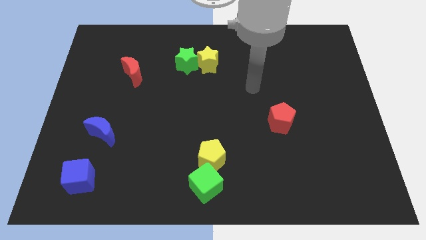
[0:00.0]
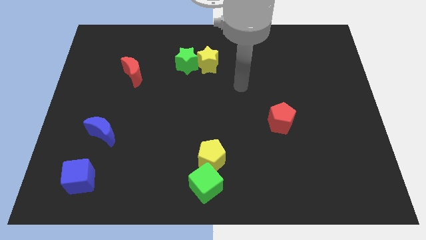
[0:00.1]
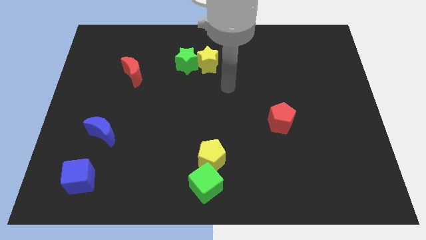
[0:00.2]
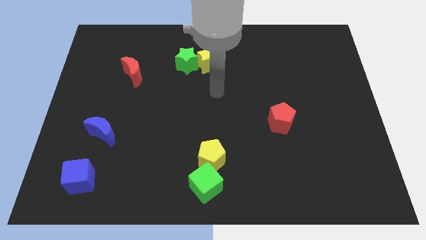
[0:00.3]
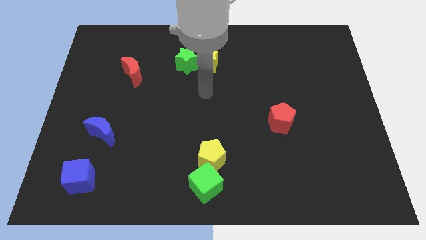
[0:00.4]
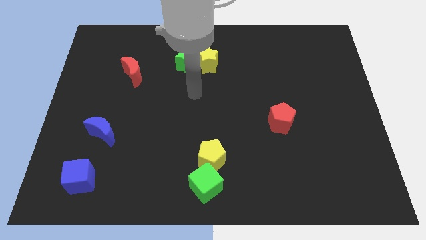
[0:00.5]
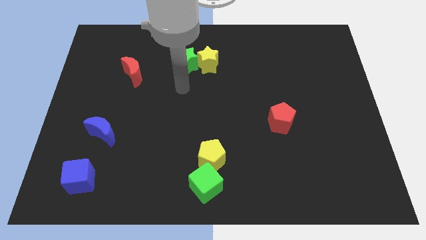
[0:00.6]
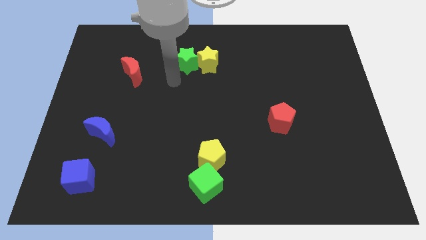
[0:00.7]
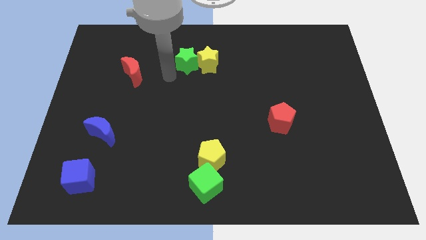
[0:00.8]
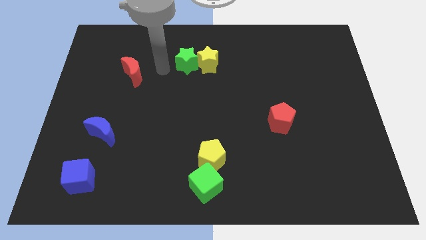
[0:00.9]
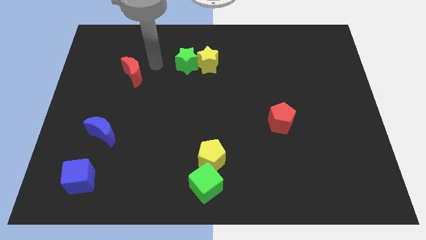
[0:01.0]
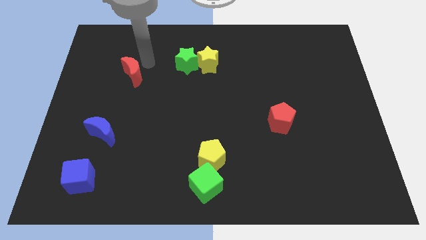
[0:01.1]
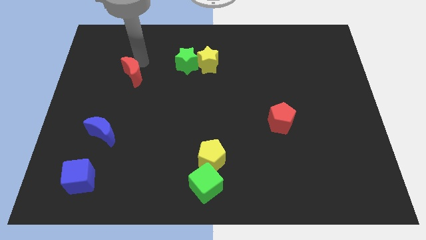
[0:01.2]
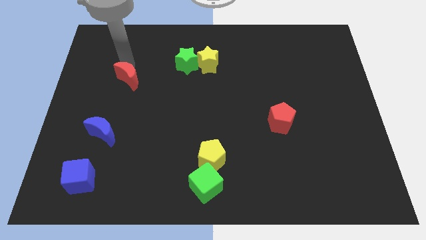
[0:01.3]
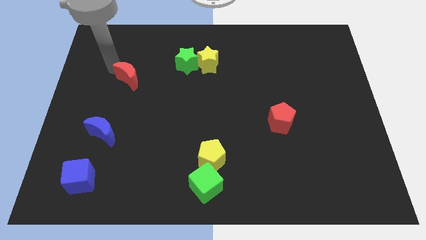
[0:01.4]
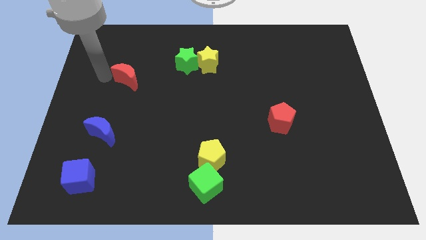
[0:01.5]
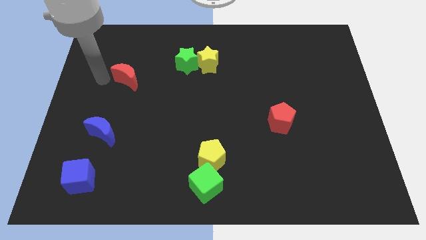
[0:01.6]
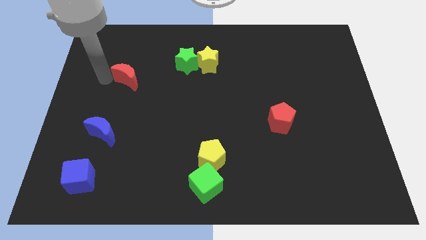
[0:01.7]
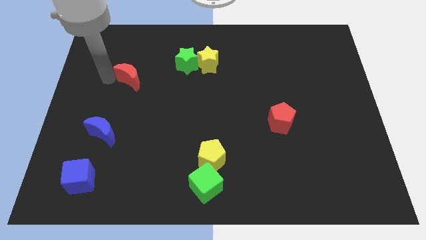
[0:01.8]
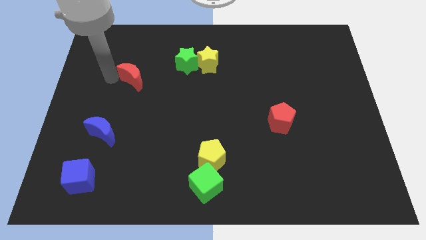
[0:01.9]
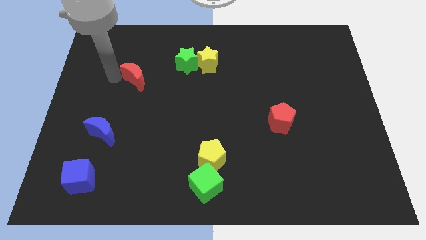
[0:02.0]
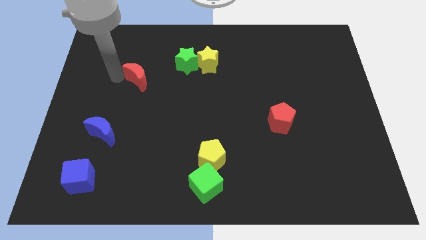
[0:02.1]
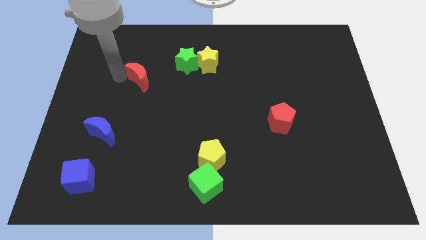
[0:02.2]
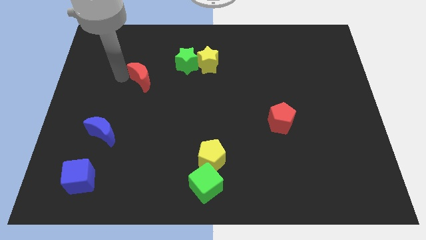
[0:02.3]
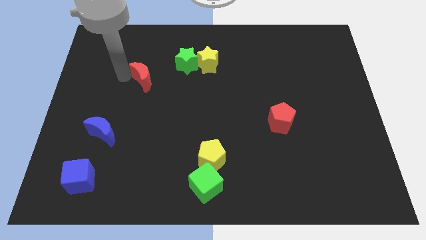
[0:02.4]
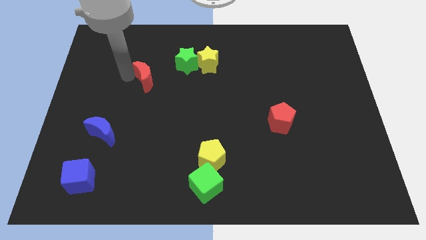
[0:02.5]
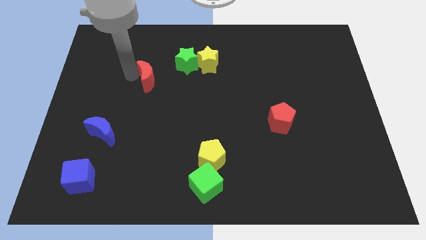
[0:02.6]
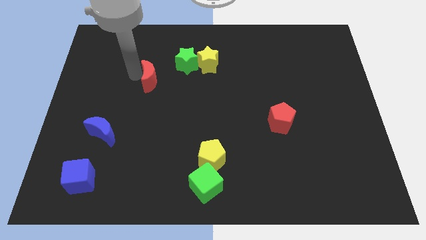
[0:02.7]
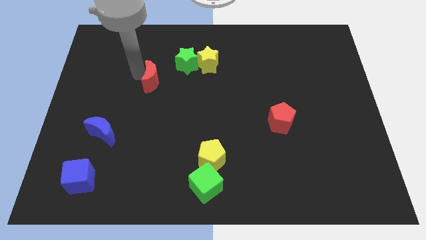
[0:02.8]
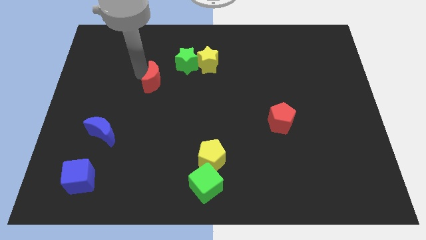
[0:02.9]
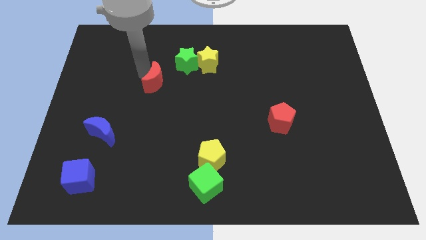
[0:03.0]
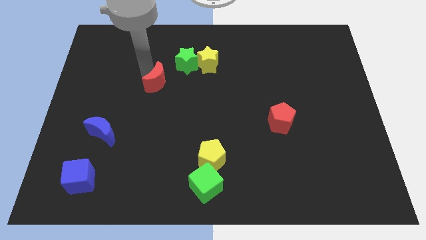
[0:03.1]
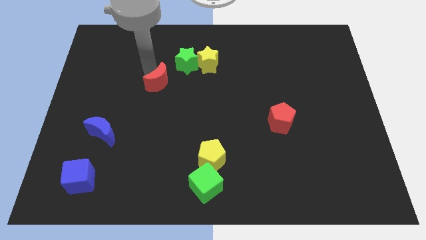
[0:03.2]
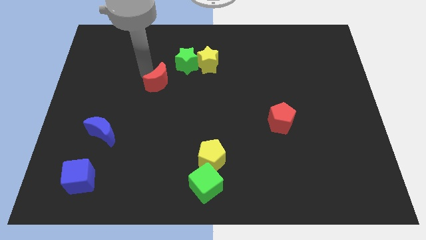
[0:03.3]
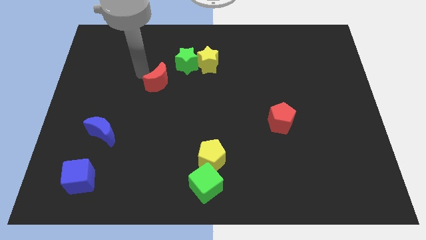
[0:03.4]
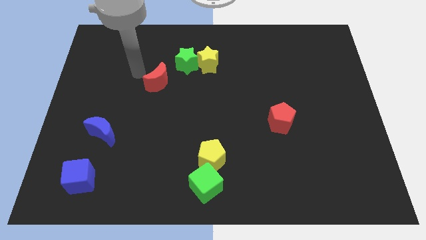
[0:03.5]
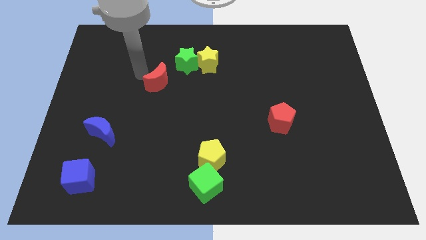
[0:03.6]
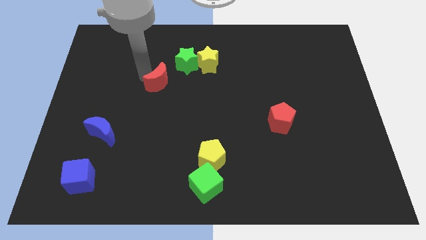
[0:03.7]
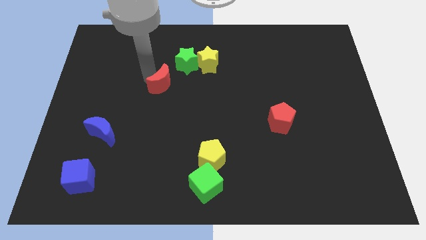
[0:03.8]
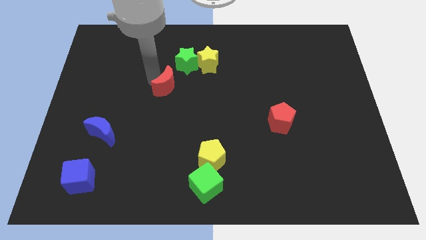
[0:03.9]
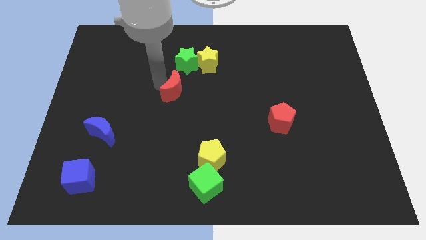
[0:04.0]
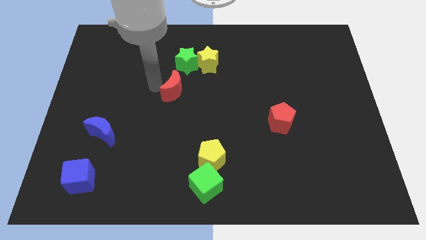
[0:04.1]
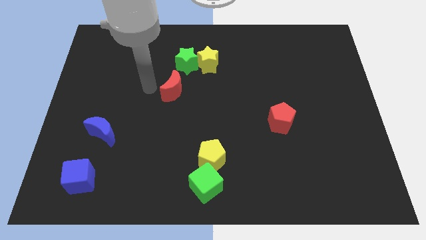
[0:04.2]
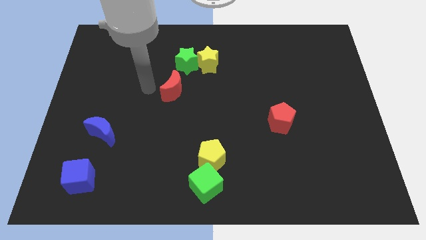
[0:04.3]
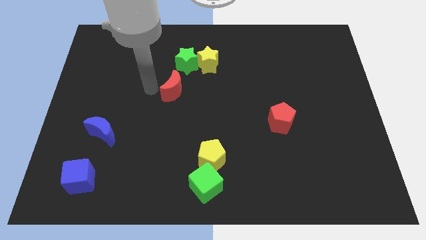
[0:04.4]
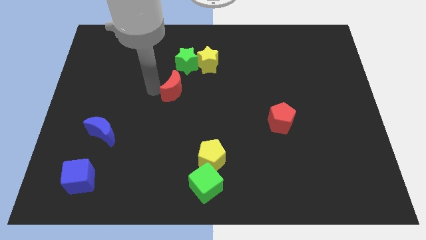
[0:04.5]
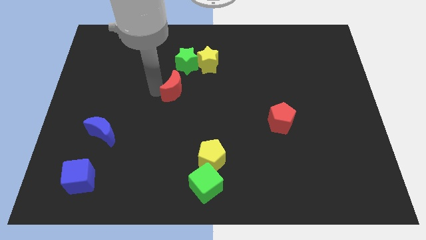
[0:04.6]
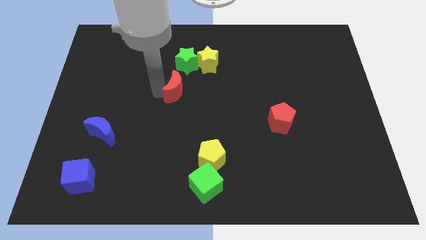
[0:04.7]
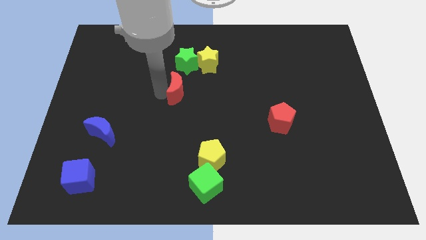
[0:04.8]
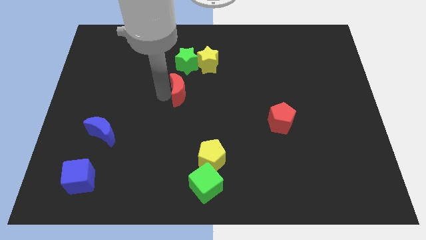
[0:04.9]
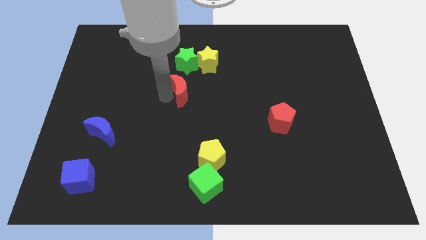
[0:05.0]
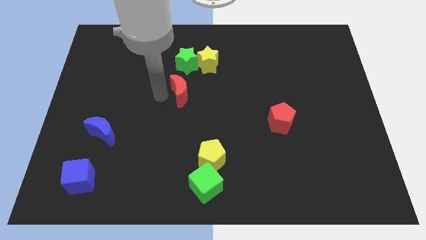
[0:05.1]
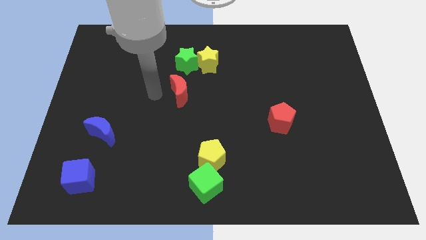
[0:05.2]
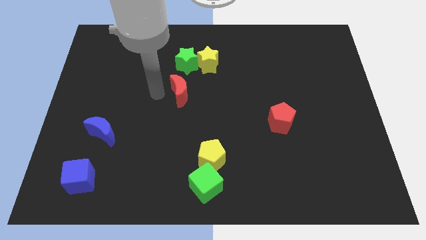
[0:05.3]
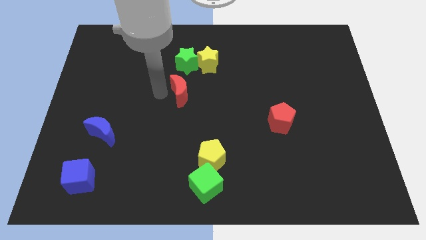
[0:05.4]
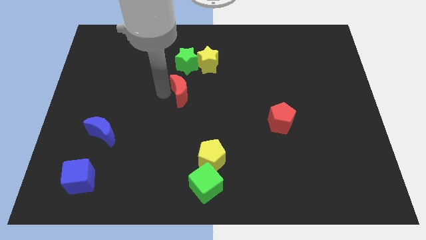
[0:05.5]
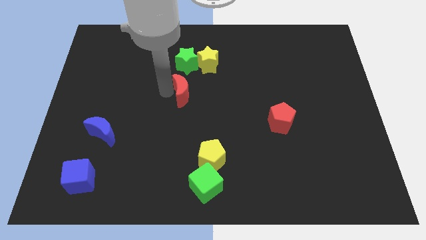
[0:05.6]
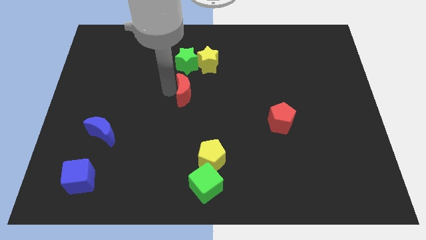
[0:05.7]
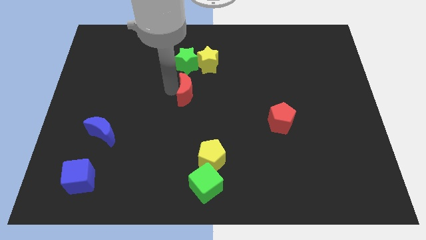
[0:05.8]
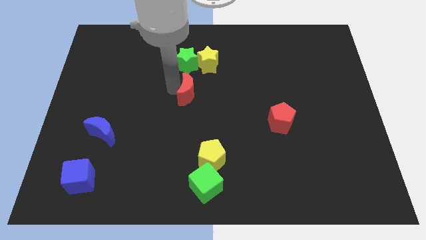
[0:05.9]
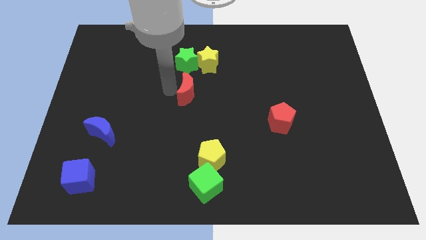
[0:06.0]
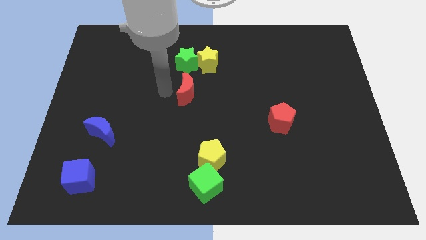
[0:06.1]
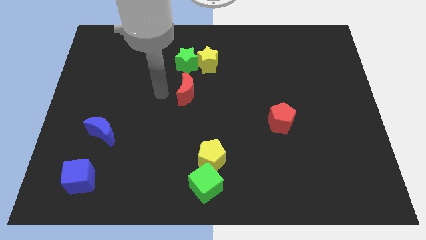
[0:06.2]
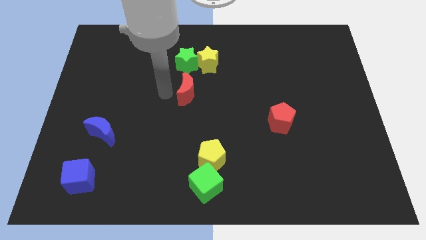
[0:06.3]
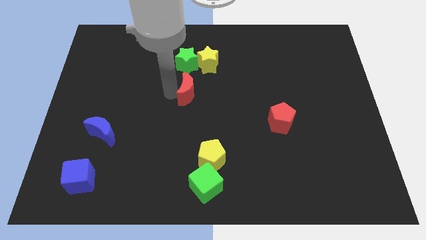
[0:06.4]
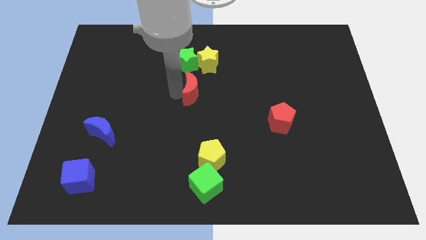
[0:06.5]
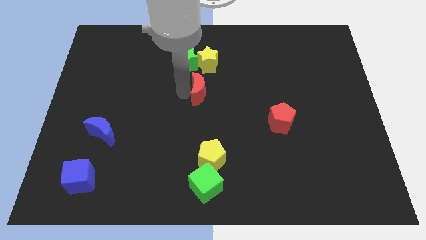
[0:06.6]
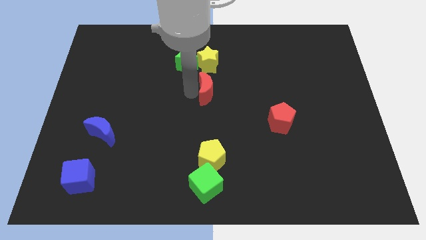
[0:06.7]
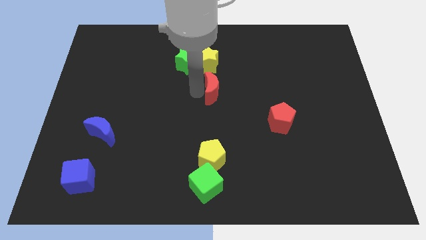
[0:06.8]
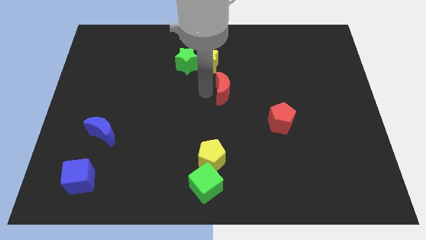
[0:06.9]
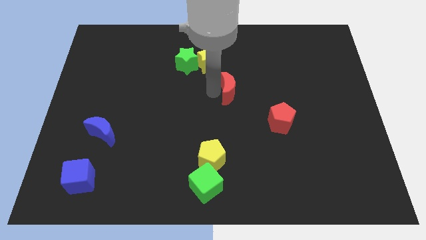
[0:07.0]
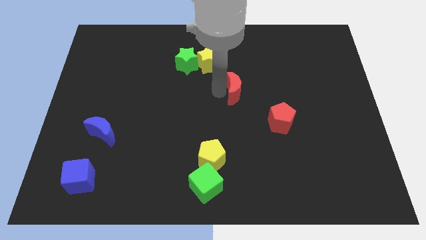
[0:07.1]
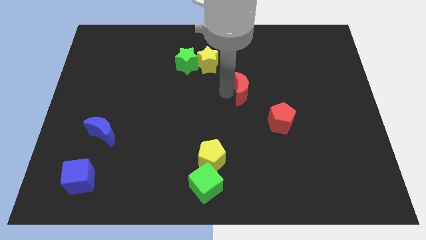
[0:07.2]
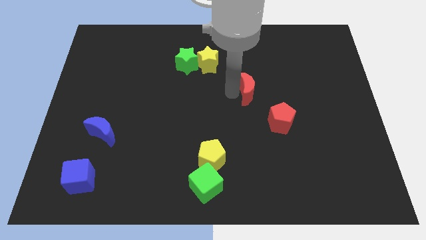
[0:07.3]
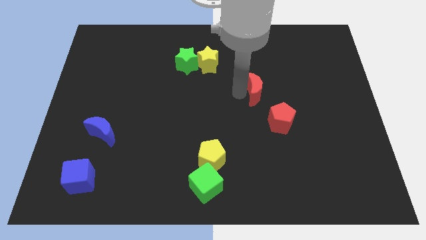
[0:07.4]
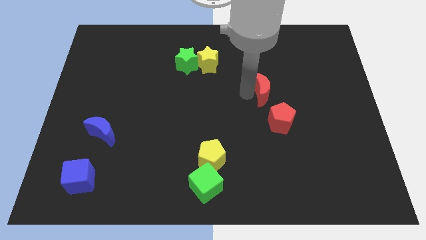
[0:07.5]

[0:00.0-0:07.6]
move the red moon above the red pentagon
